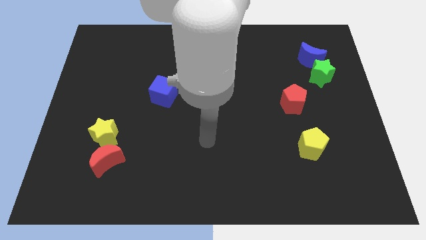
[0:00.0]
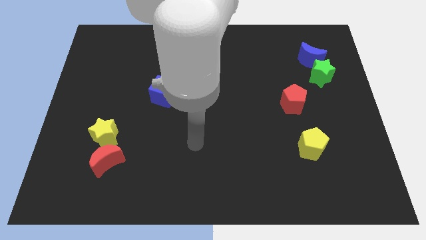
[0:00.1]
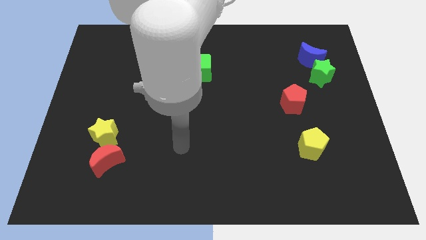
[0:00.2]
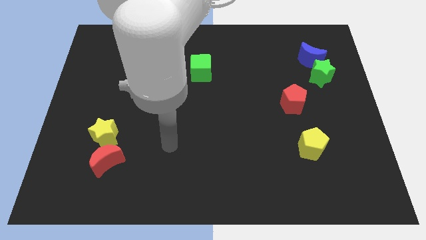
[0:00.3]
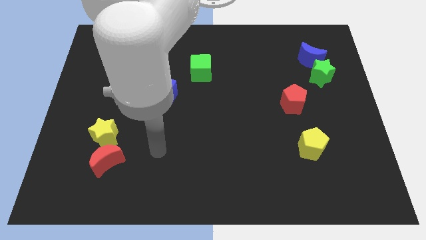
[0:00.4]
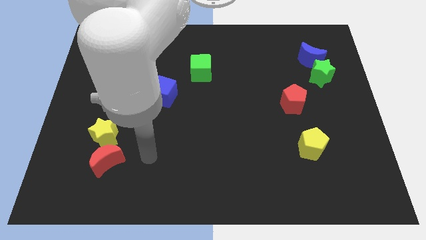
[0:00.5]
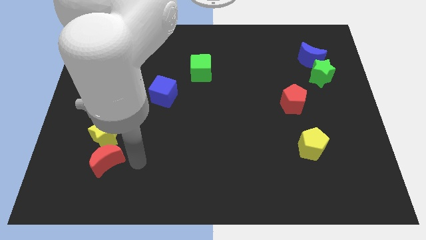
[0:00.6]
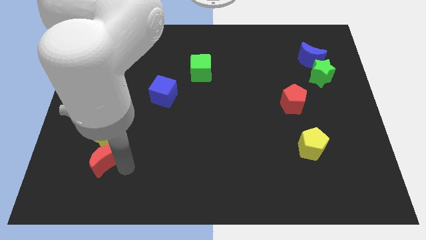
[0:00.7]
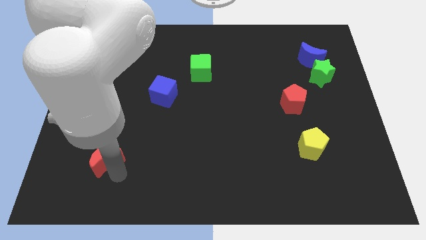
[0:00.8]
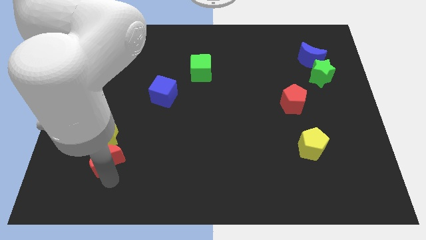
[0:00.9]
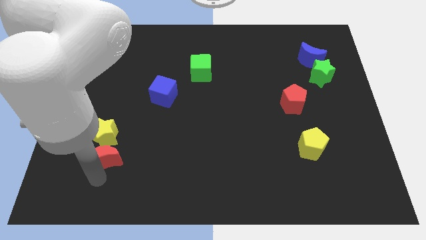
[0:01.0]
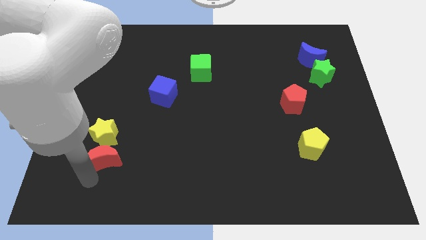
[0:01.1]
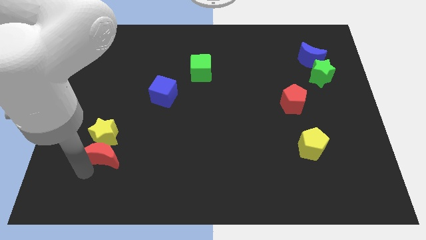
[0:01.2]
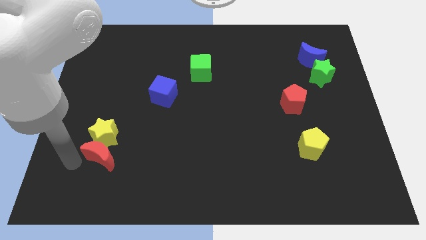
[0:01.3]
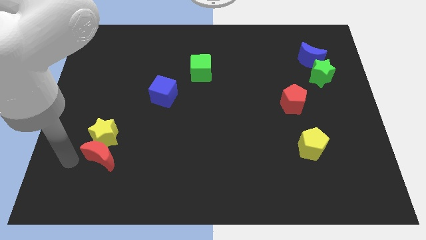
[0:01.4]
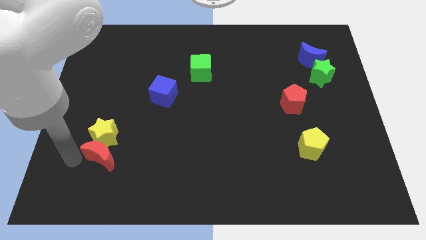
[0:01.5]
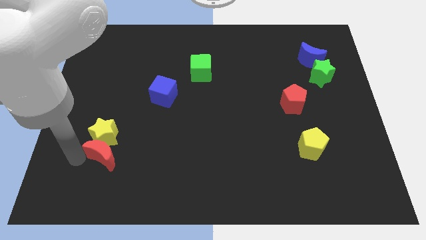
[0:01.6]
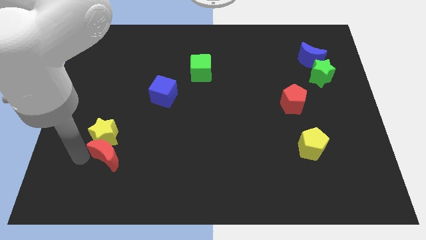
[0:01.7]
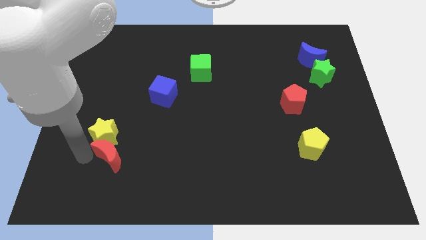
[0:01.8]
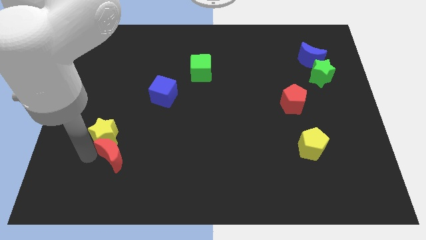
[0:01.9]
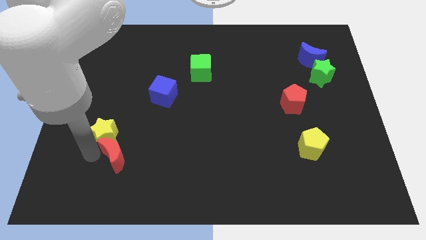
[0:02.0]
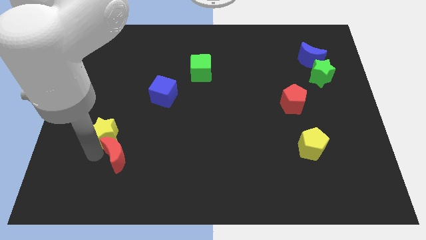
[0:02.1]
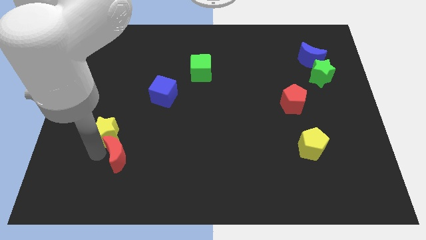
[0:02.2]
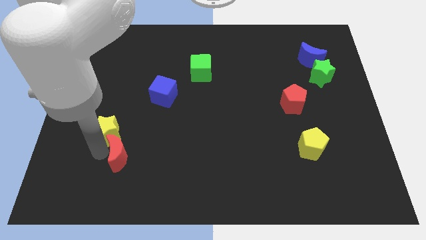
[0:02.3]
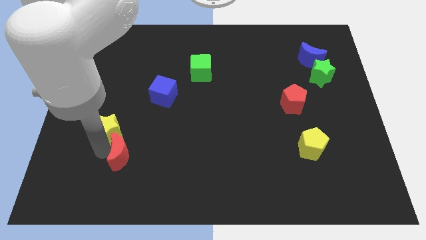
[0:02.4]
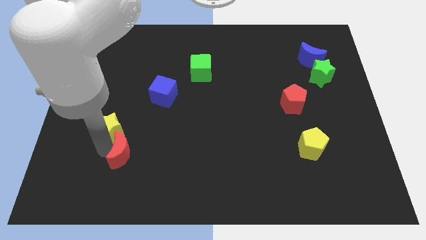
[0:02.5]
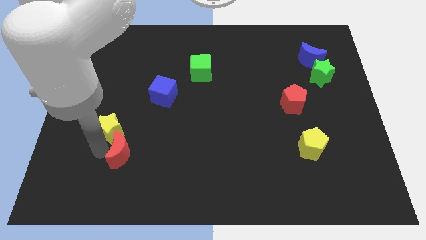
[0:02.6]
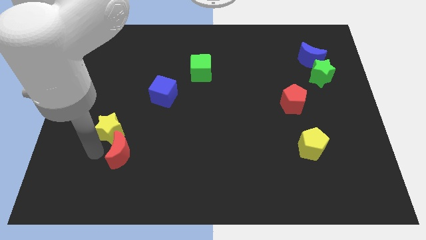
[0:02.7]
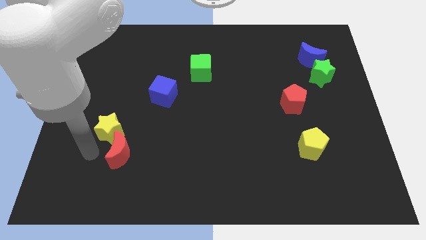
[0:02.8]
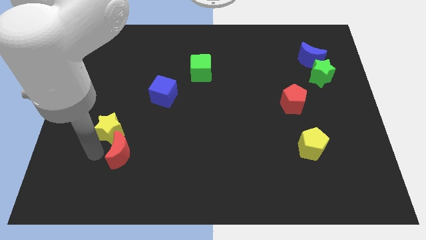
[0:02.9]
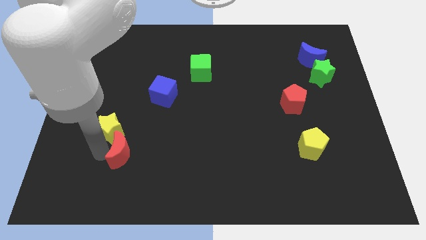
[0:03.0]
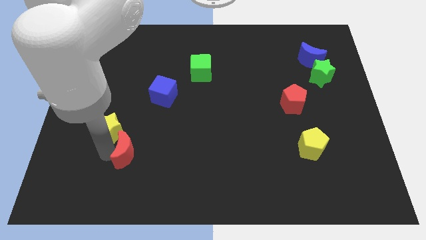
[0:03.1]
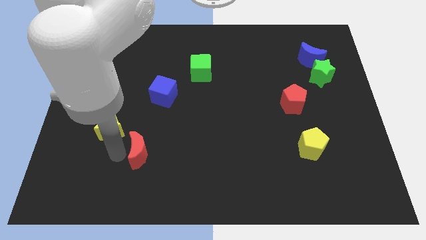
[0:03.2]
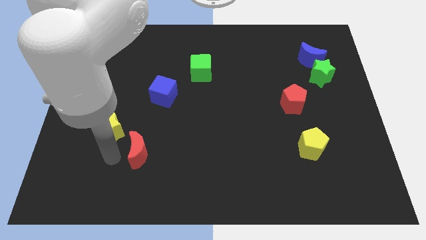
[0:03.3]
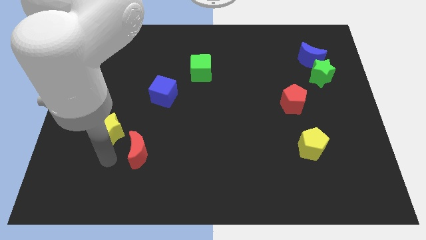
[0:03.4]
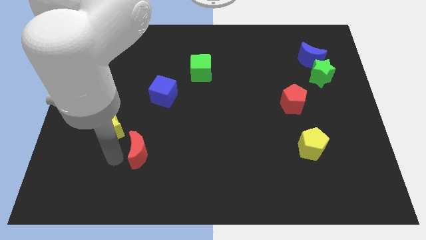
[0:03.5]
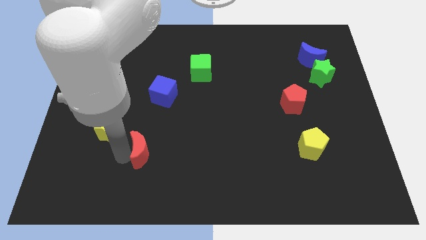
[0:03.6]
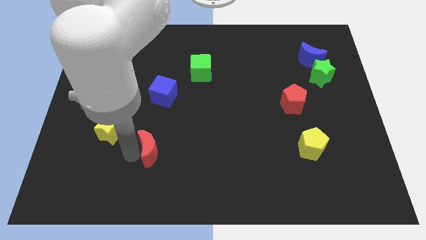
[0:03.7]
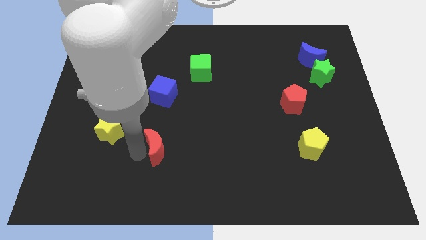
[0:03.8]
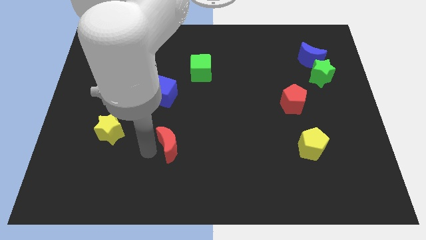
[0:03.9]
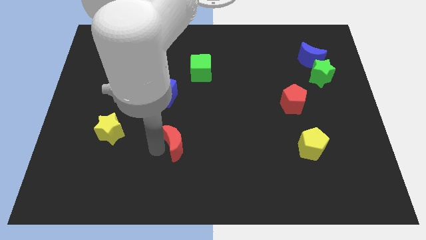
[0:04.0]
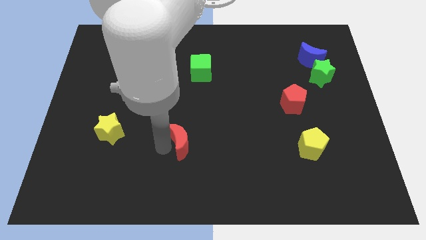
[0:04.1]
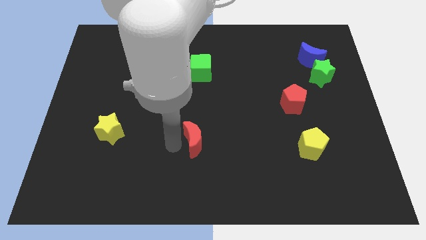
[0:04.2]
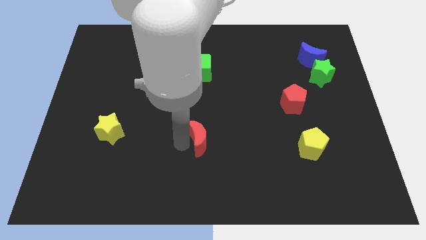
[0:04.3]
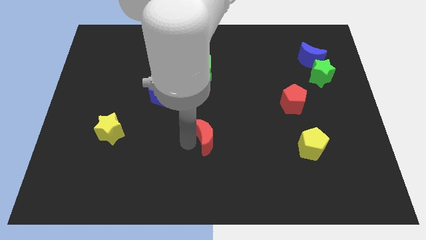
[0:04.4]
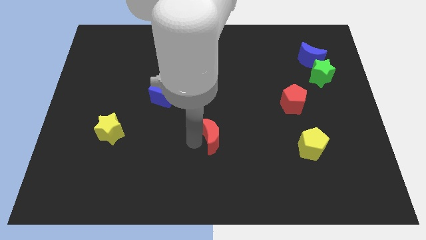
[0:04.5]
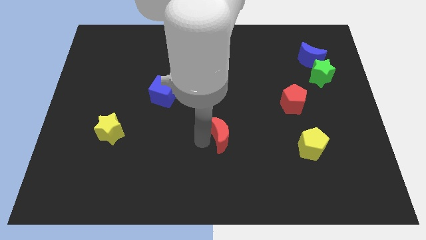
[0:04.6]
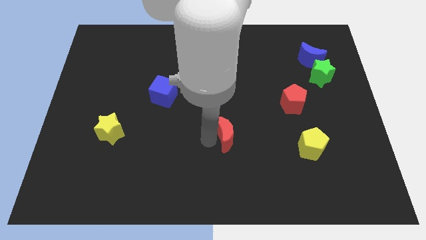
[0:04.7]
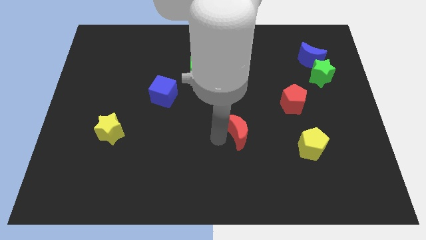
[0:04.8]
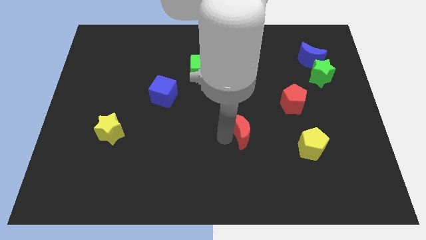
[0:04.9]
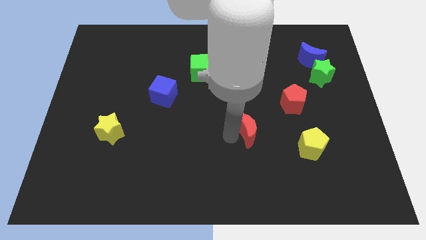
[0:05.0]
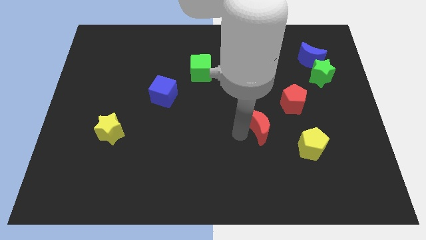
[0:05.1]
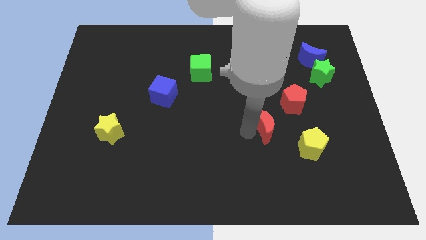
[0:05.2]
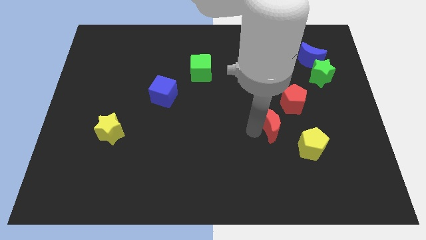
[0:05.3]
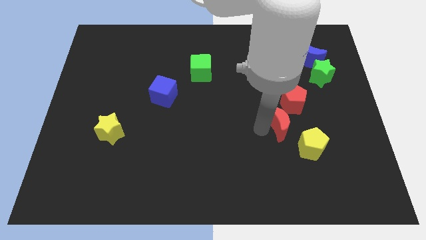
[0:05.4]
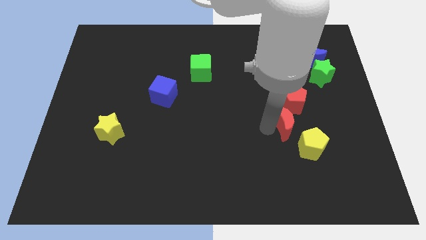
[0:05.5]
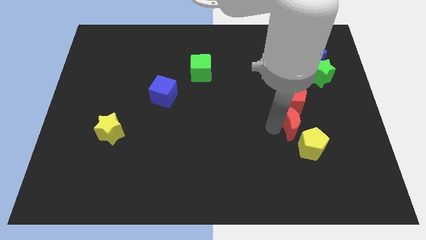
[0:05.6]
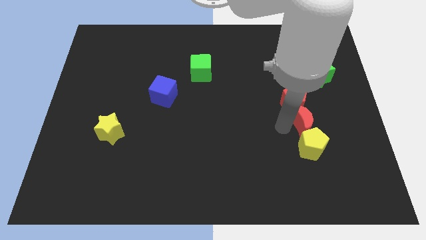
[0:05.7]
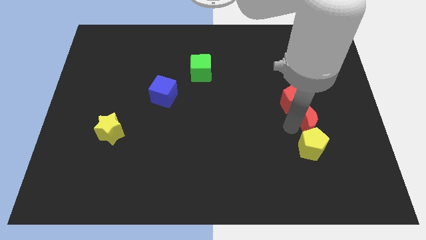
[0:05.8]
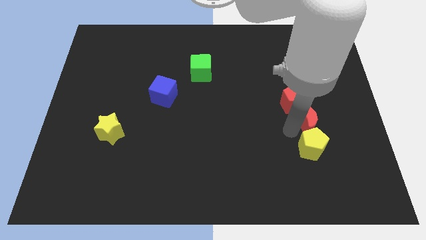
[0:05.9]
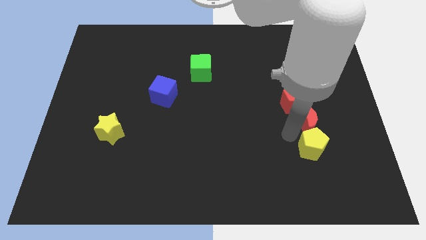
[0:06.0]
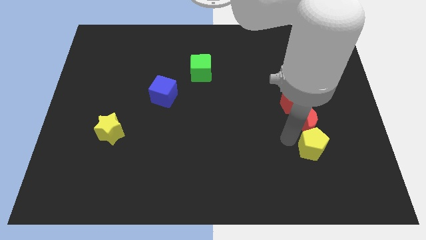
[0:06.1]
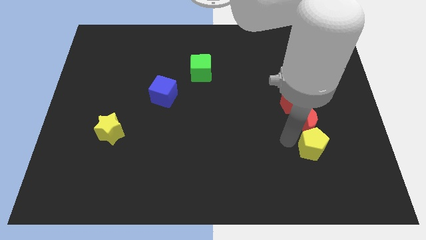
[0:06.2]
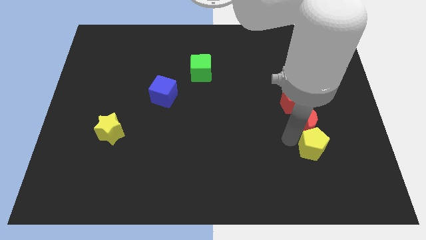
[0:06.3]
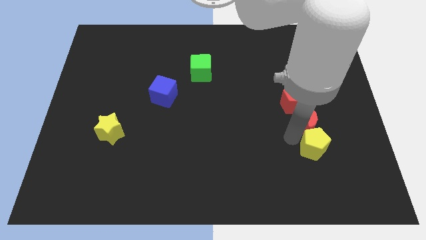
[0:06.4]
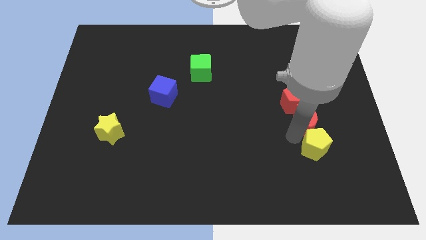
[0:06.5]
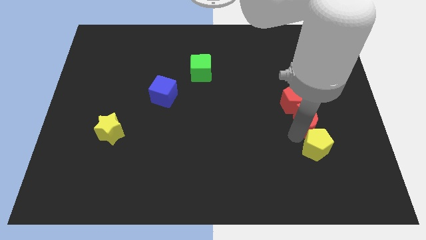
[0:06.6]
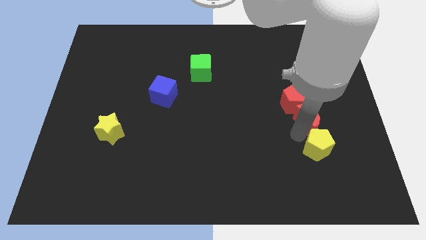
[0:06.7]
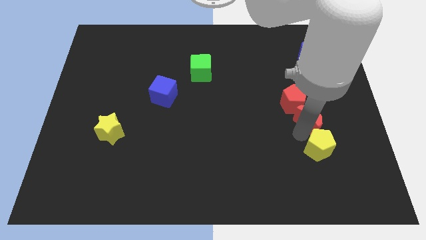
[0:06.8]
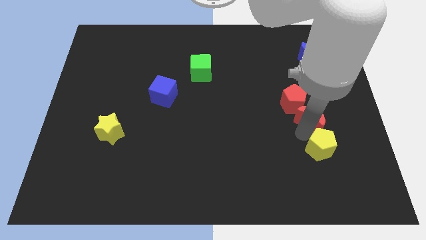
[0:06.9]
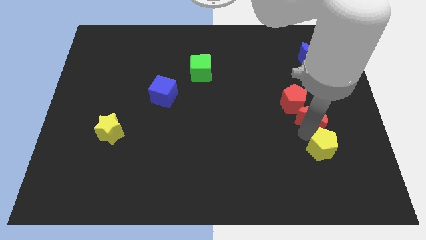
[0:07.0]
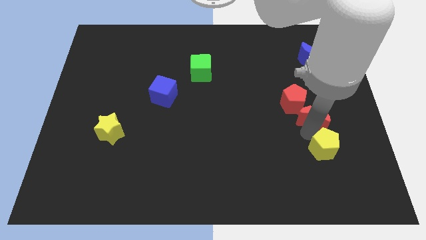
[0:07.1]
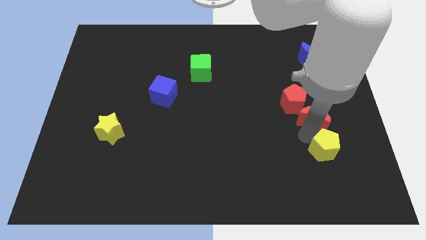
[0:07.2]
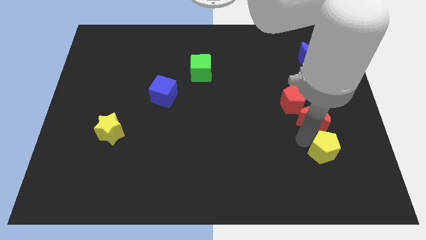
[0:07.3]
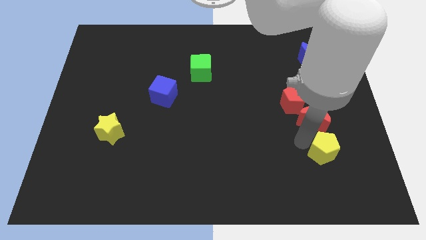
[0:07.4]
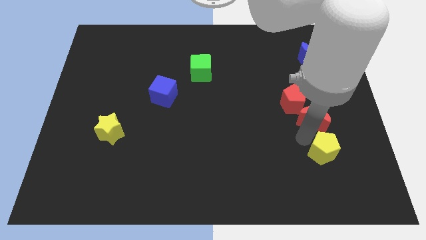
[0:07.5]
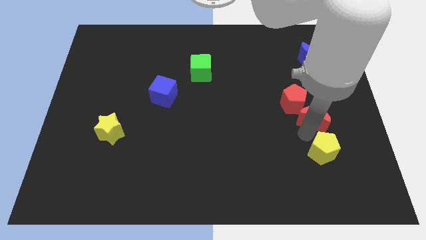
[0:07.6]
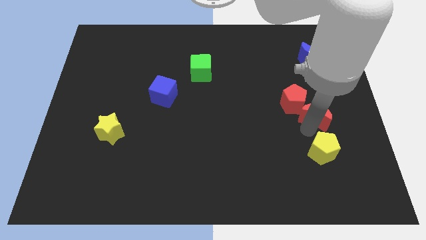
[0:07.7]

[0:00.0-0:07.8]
slide the red moon to the right side of the red pentagon
